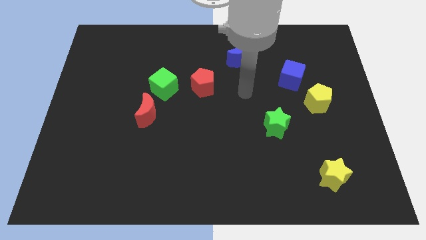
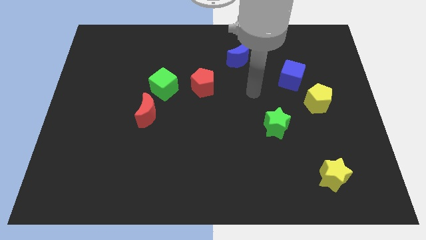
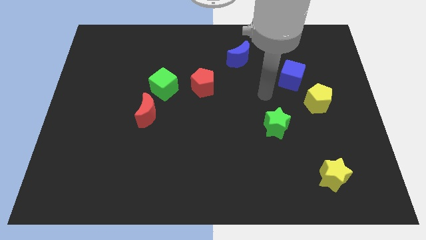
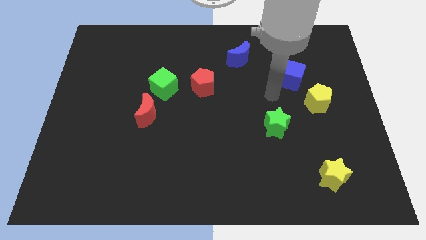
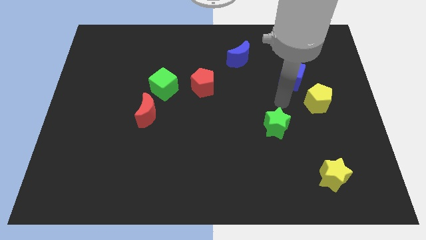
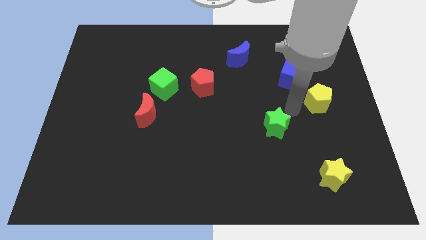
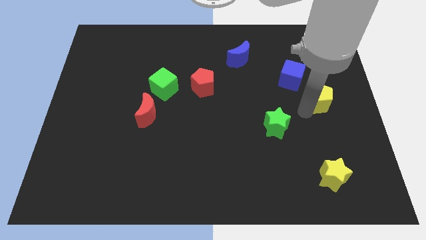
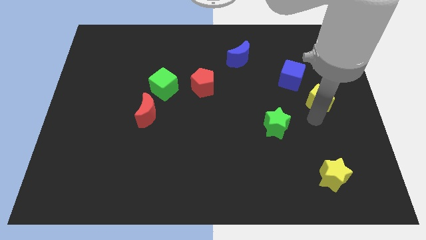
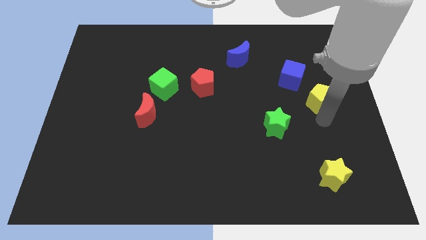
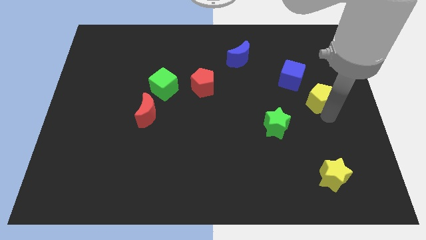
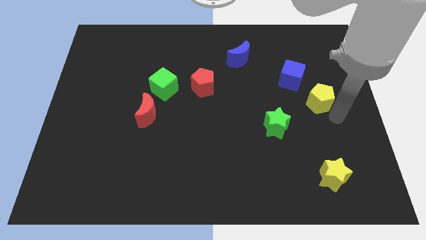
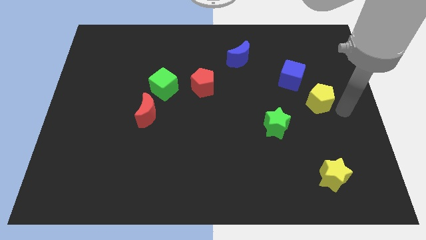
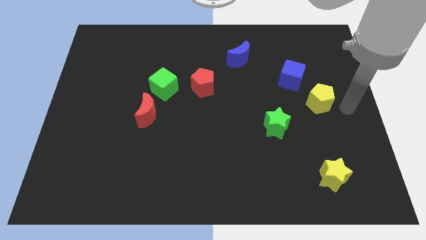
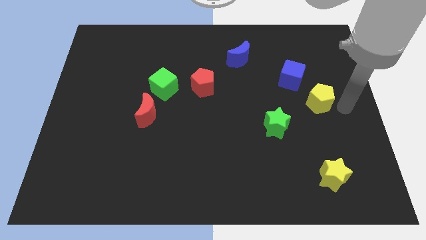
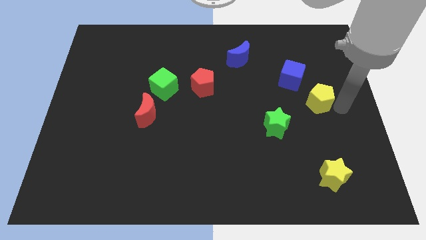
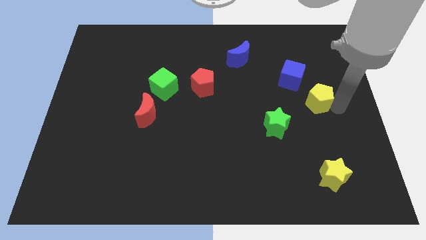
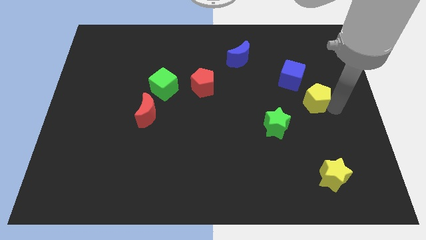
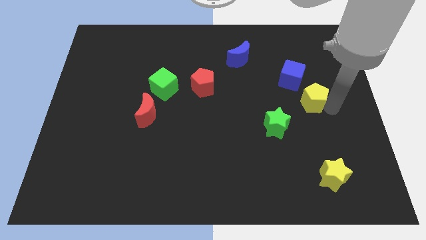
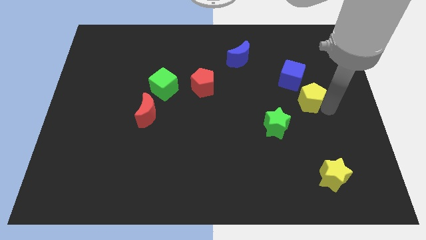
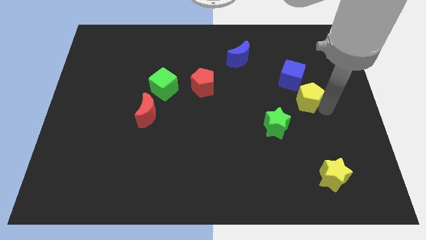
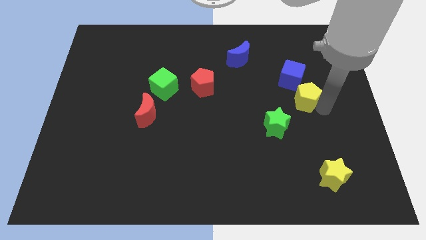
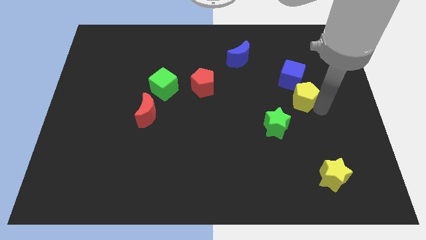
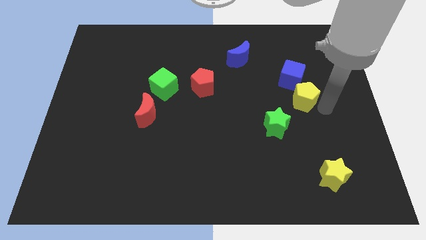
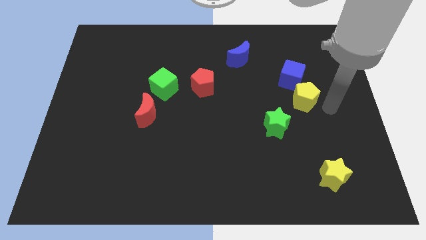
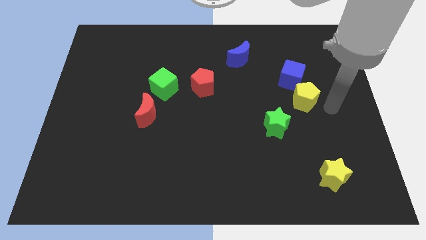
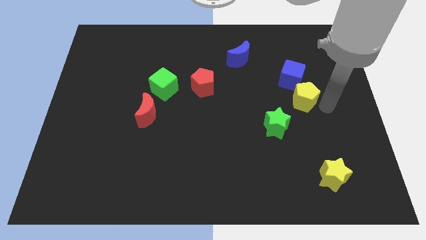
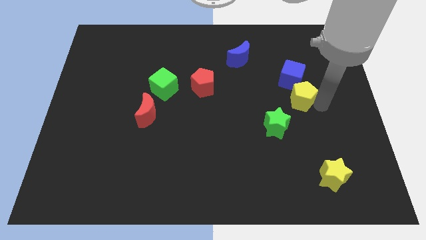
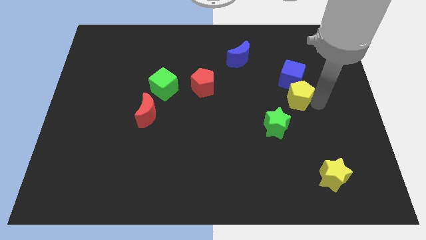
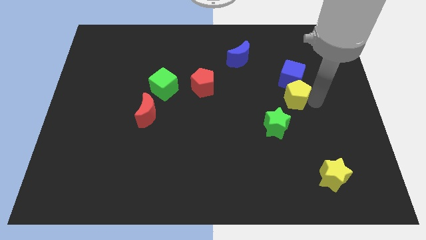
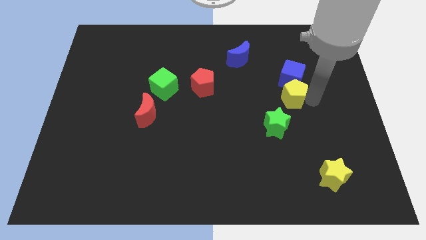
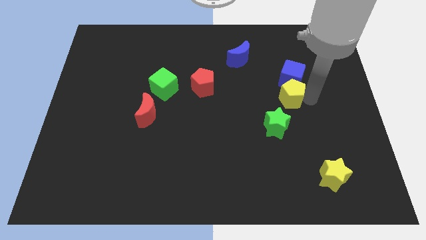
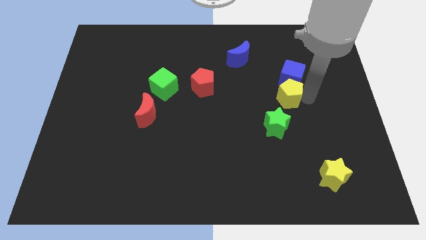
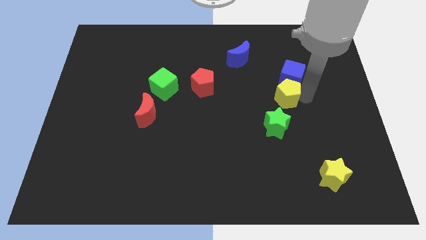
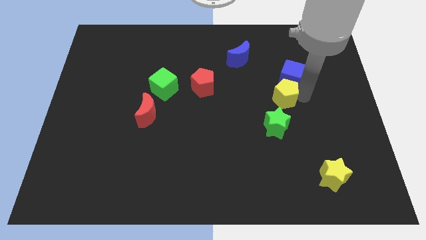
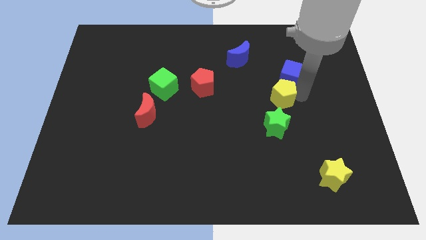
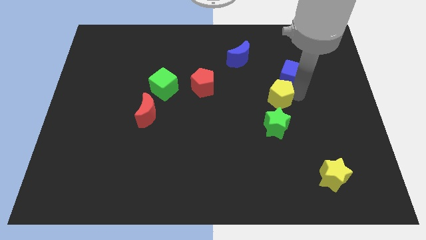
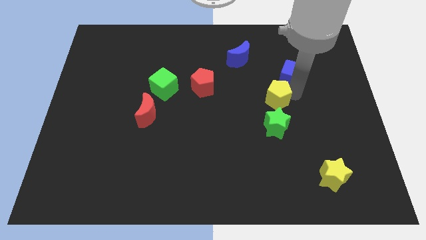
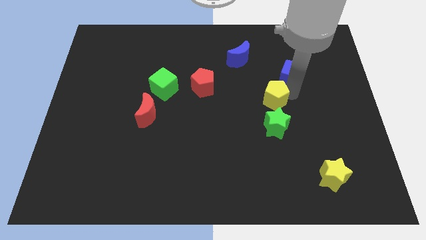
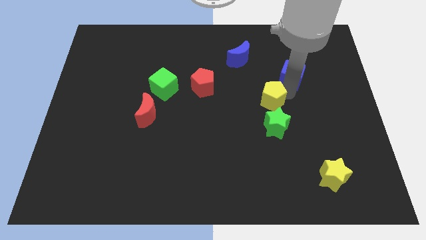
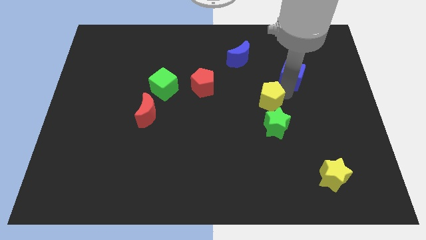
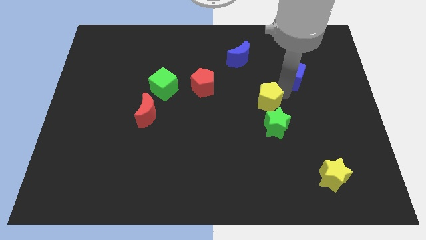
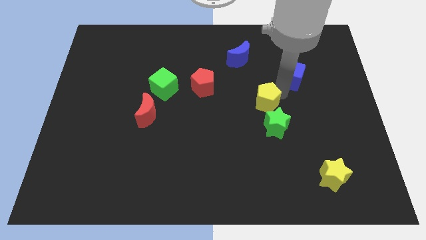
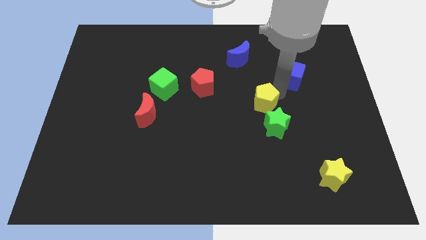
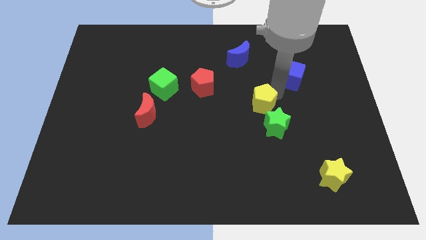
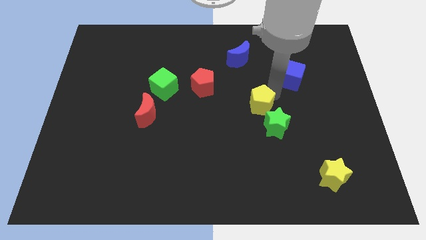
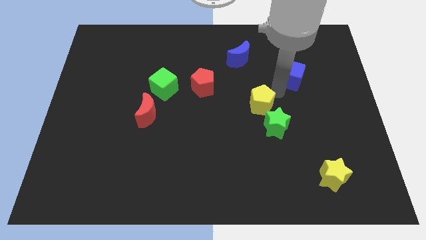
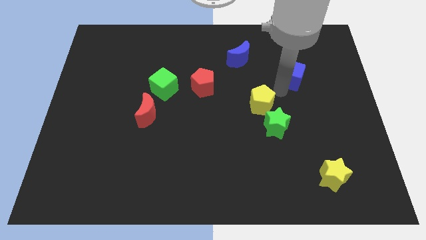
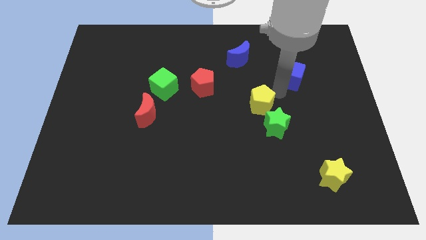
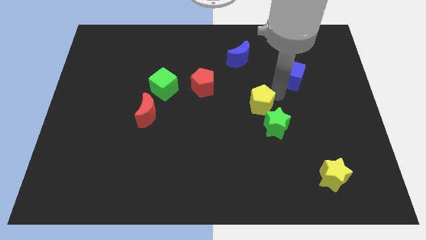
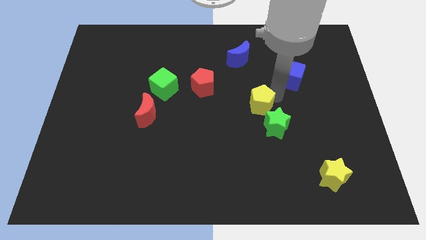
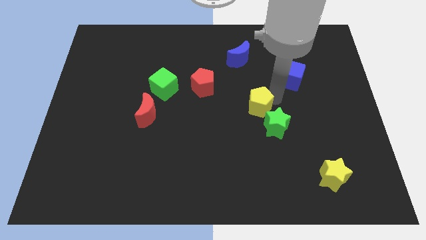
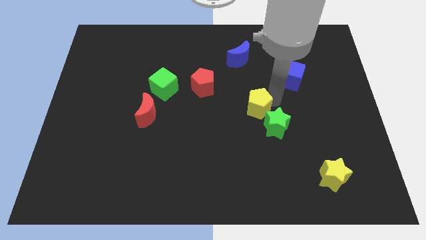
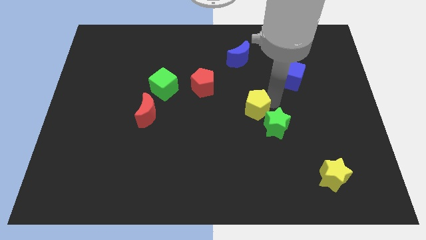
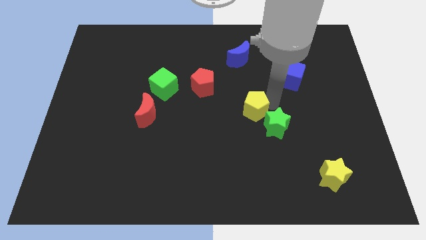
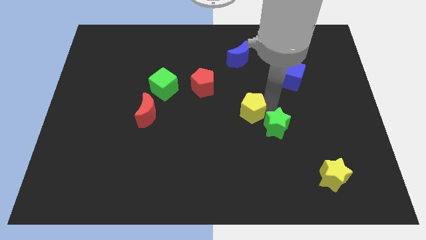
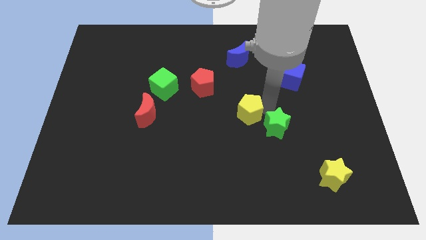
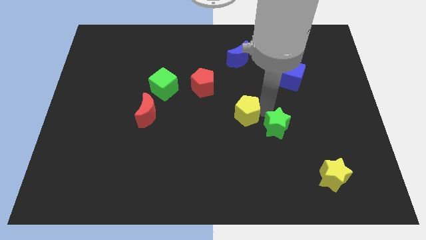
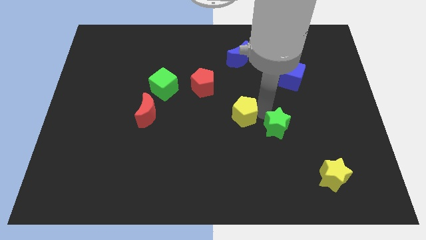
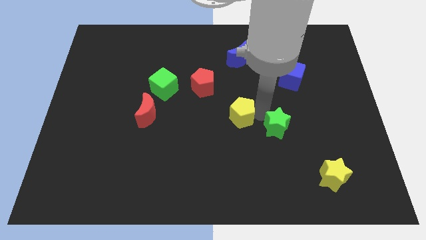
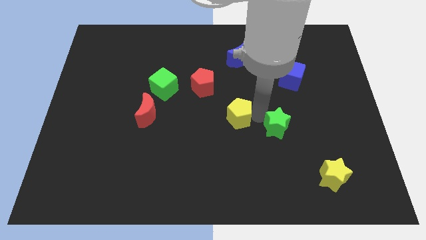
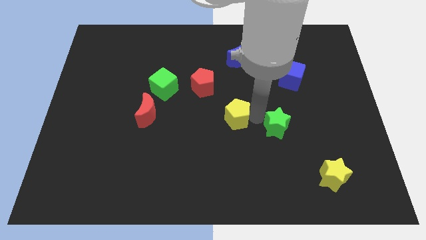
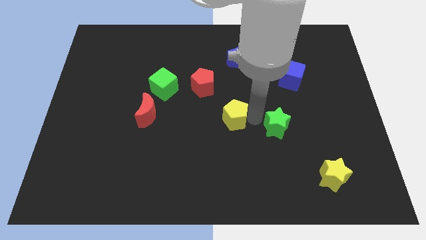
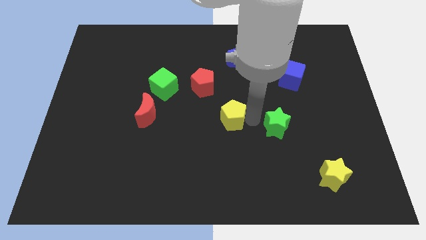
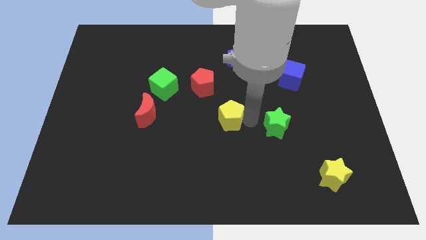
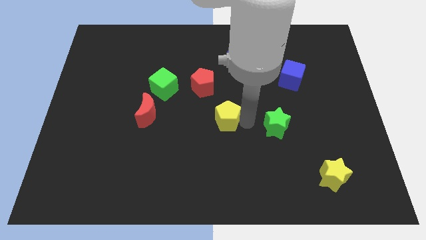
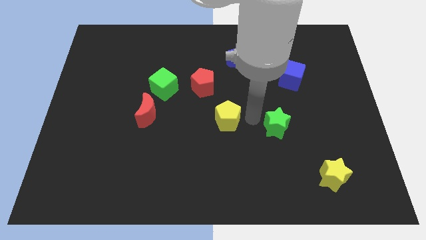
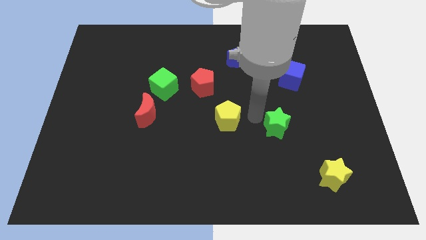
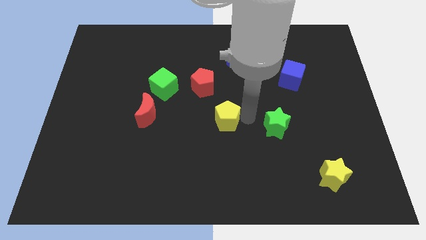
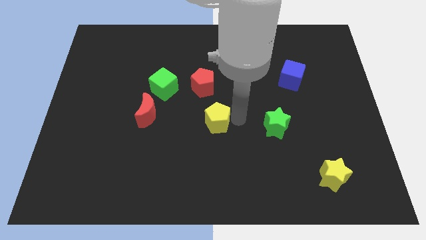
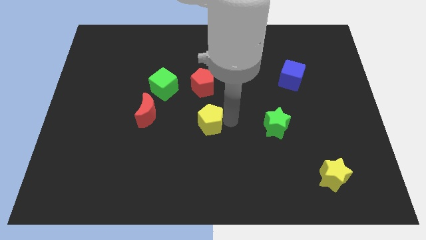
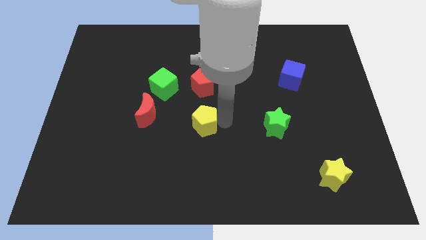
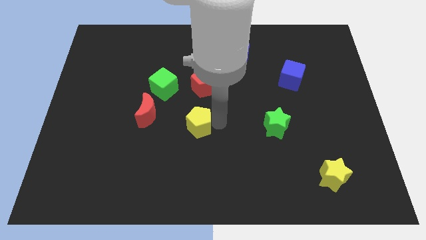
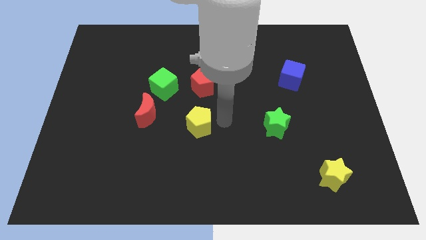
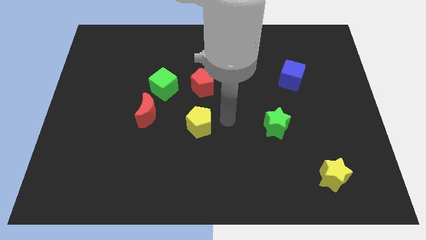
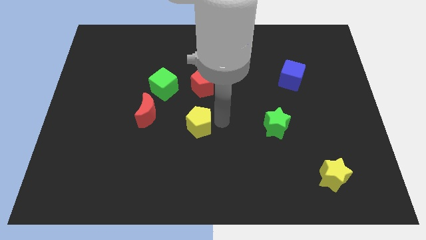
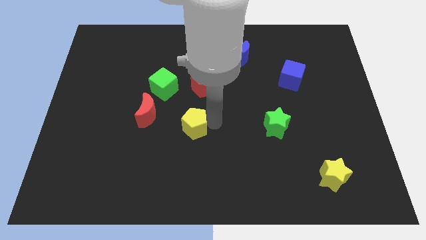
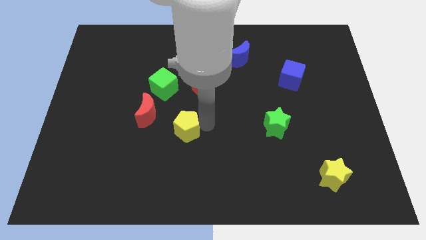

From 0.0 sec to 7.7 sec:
push the yellow pentagon to the bottom right of the red moon
